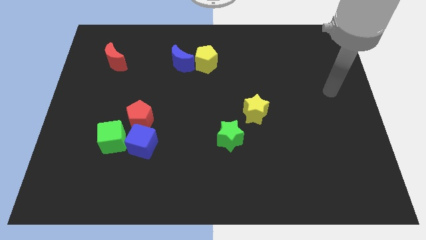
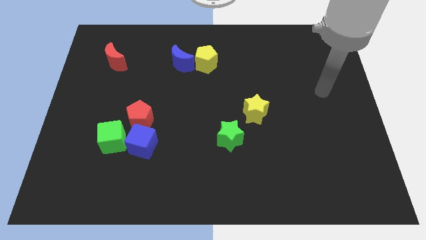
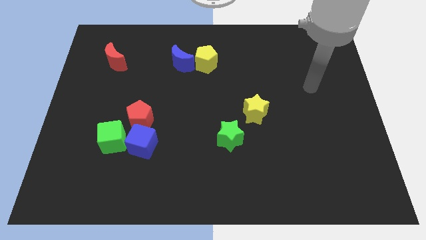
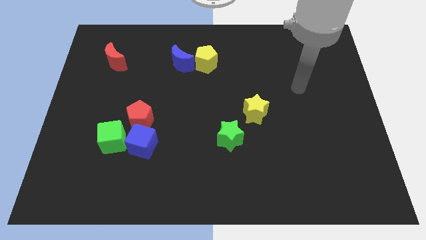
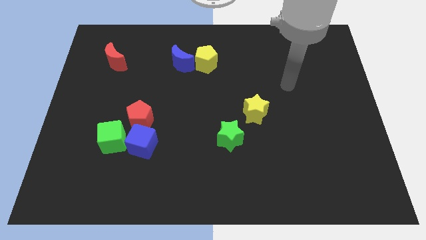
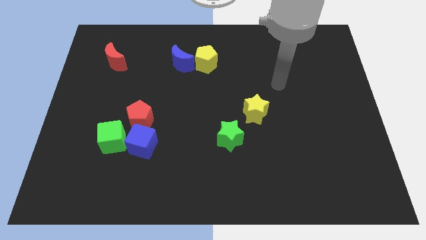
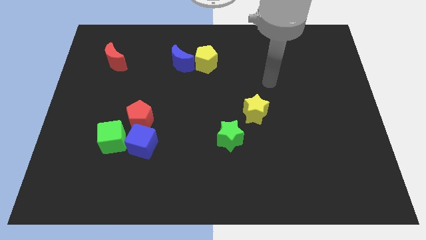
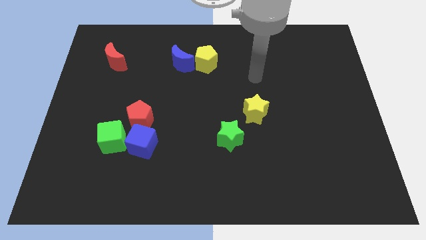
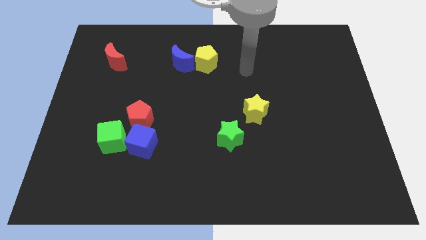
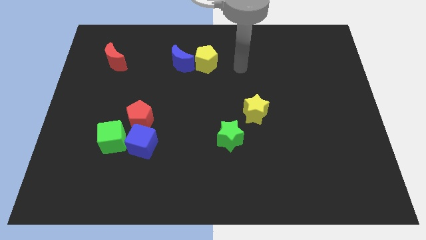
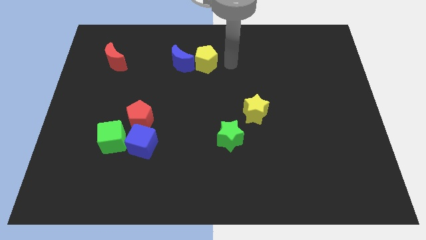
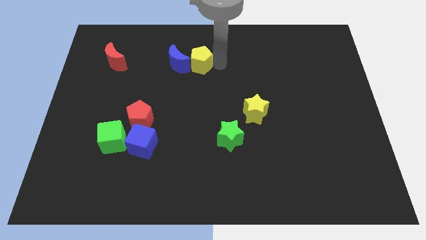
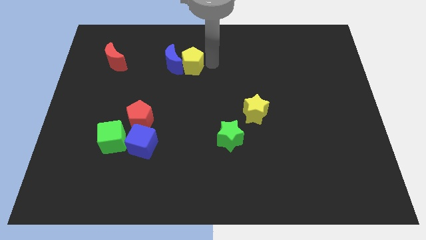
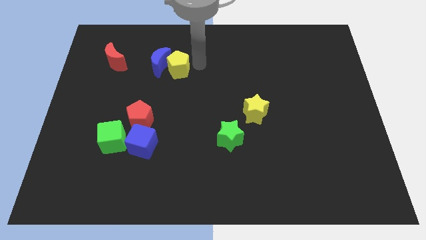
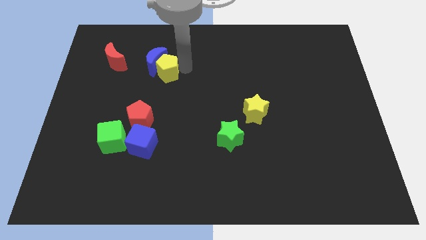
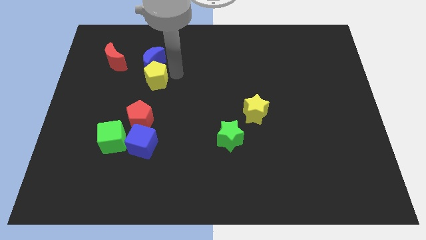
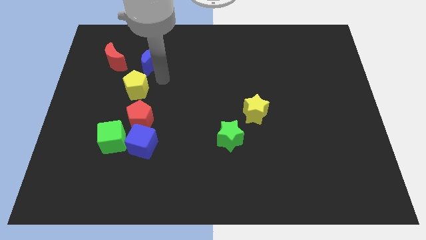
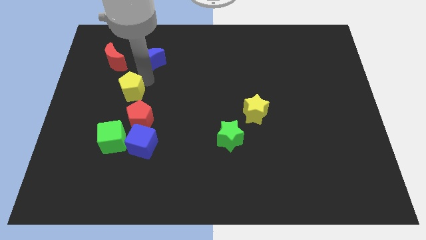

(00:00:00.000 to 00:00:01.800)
separate the blue moon from the yellow pentagon

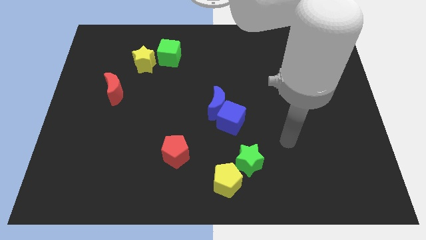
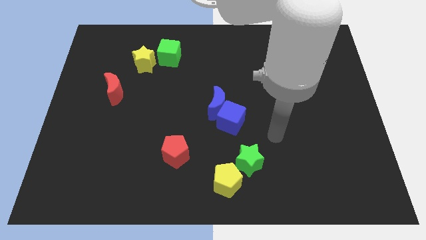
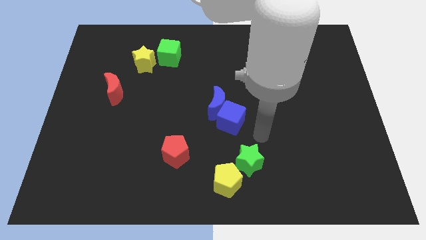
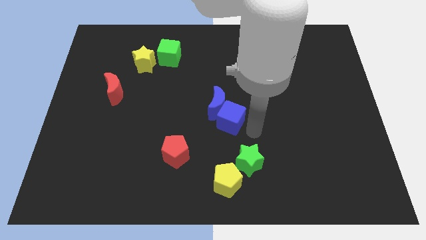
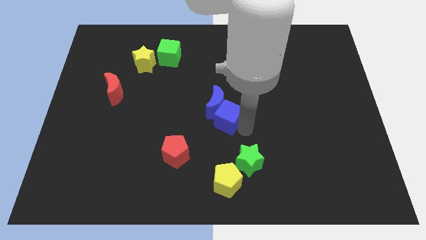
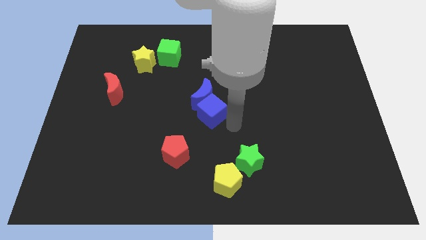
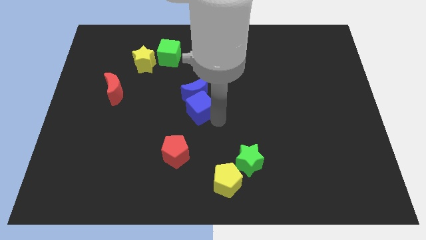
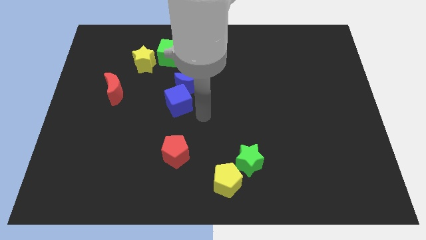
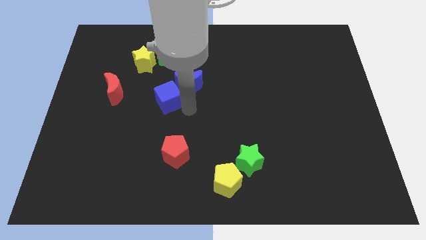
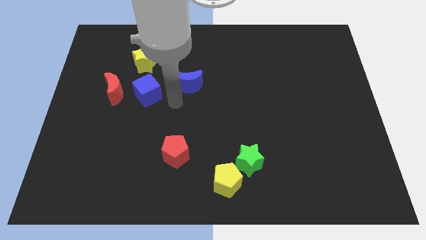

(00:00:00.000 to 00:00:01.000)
pull the blue moon apart from the blue cube

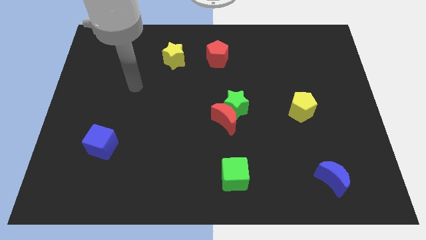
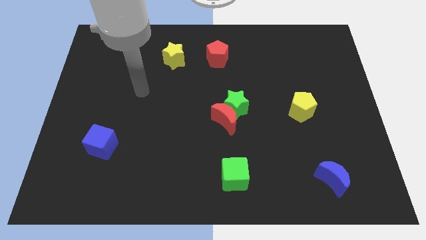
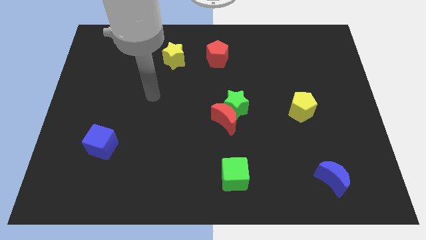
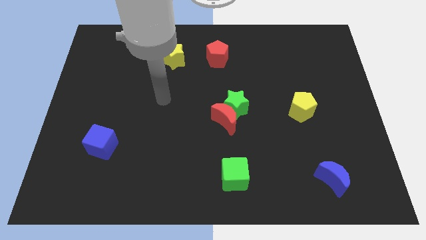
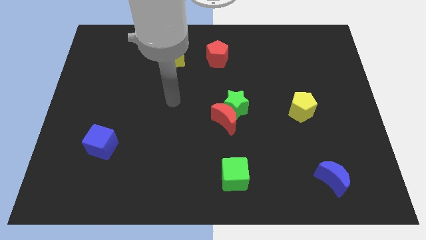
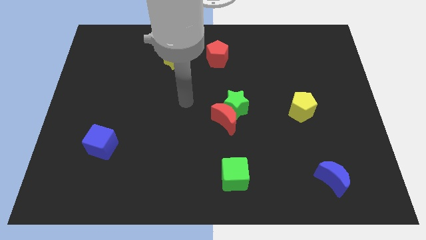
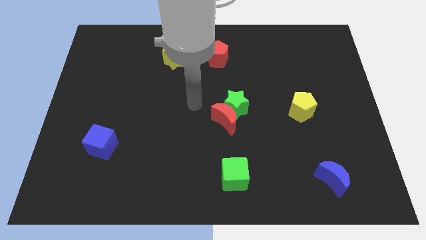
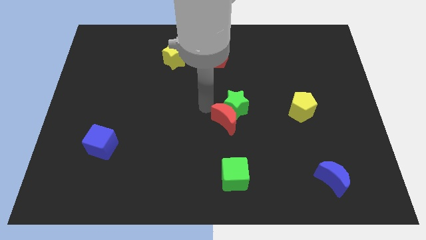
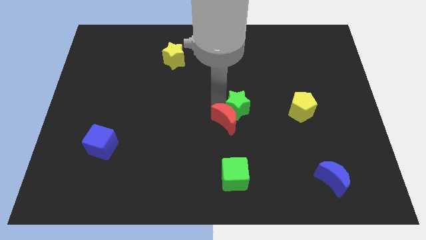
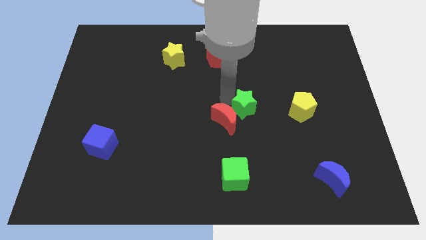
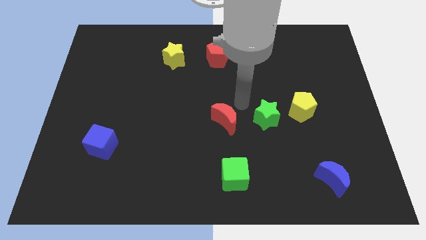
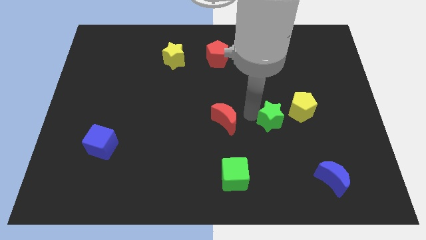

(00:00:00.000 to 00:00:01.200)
pull the red moon apart from the green star

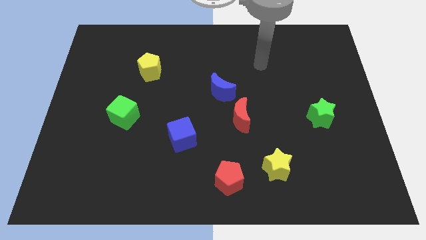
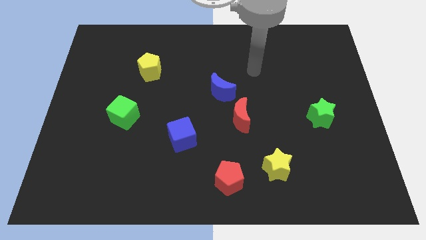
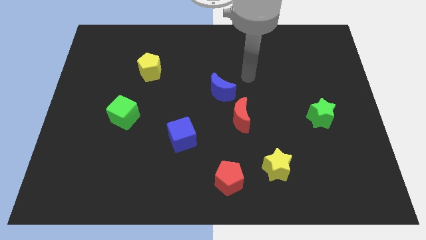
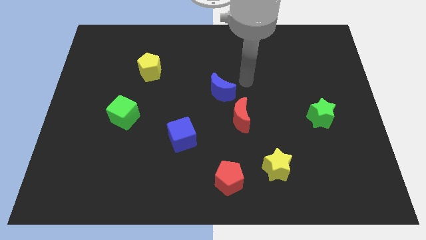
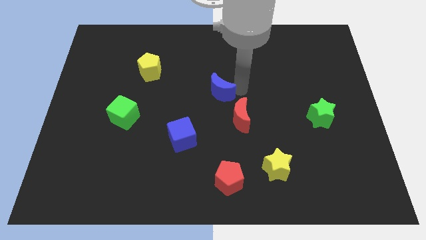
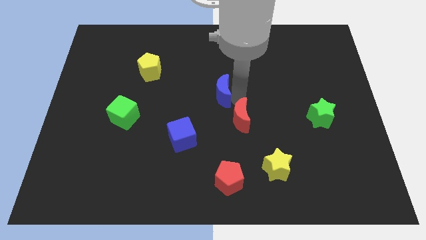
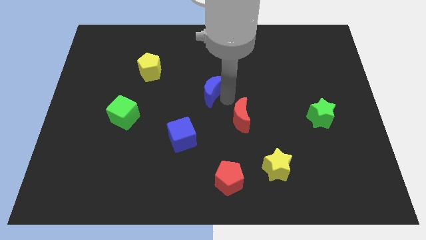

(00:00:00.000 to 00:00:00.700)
move the red moon away from the blue moon

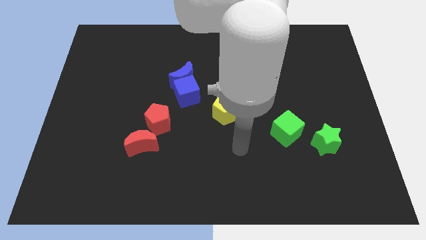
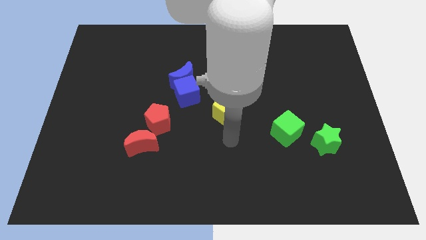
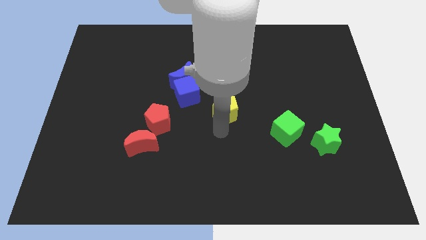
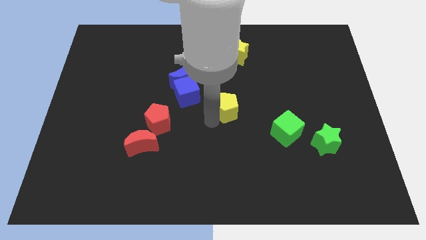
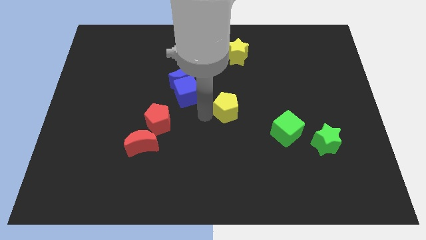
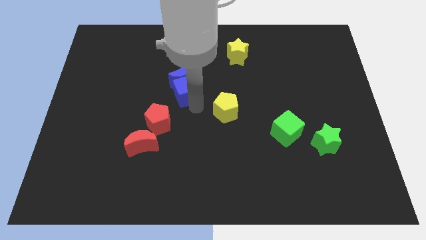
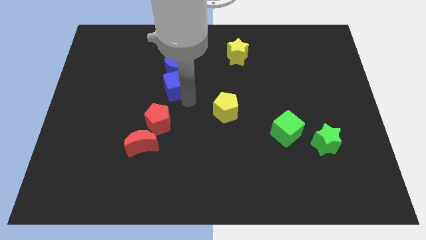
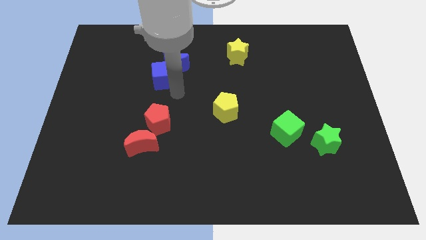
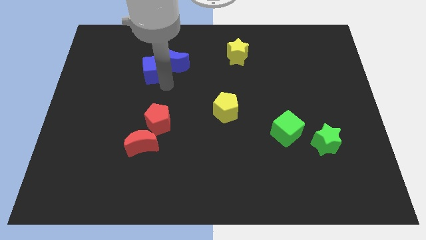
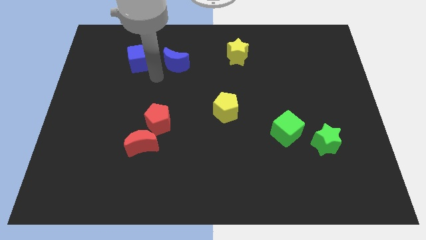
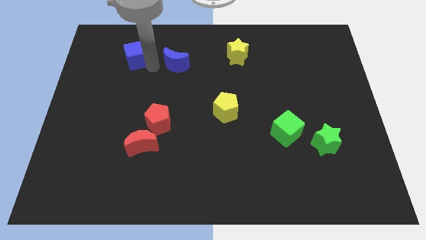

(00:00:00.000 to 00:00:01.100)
separate the blue moon from the blue cube

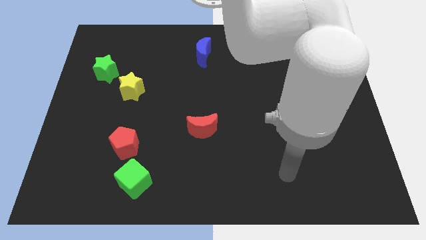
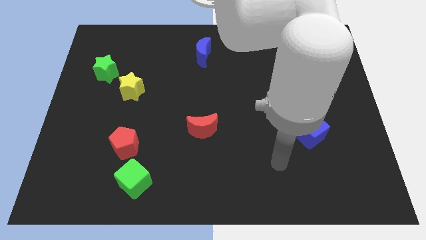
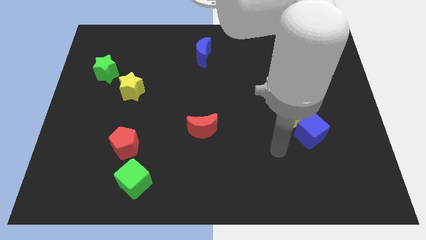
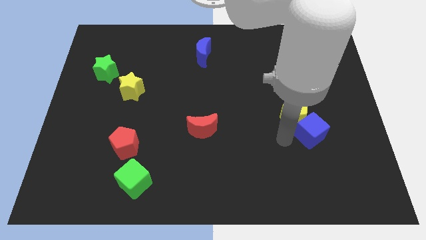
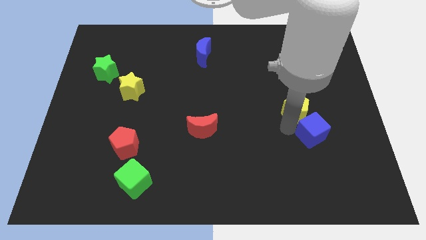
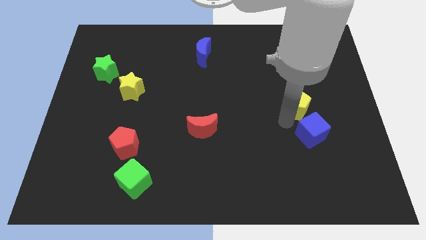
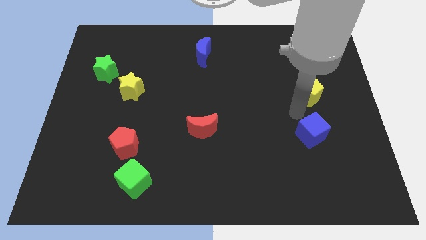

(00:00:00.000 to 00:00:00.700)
separate the blue cube from the yellow pentagon

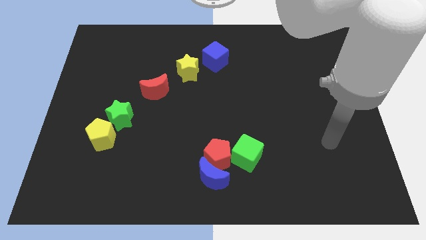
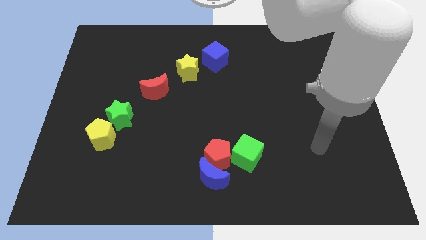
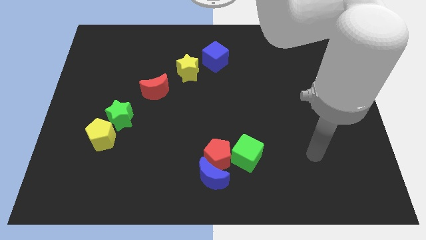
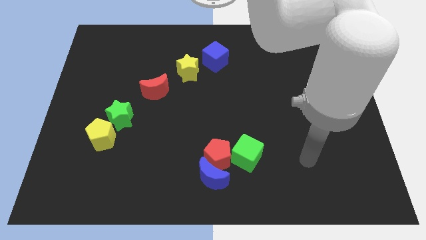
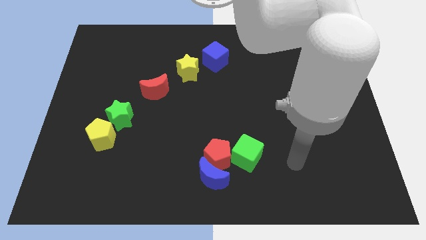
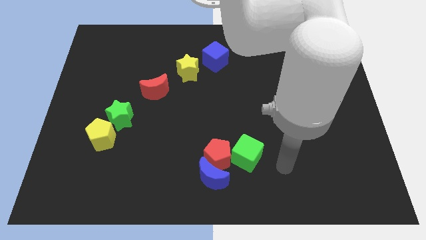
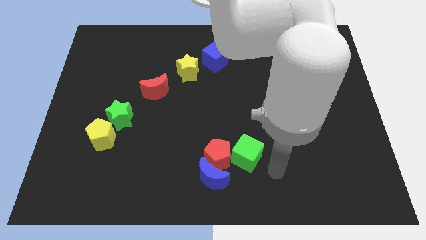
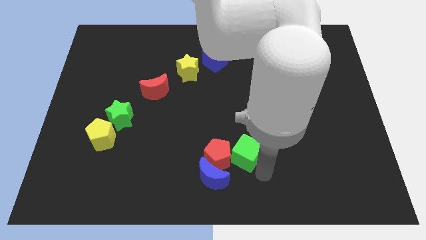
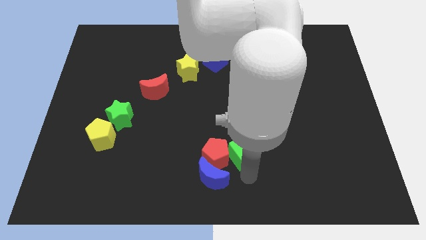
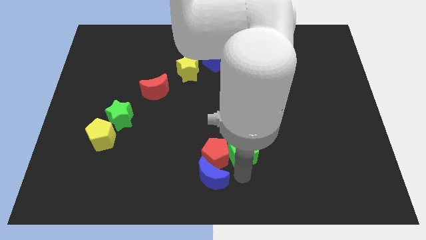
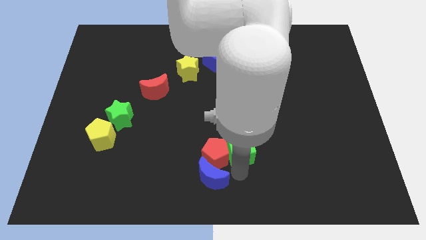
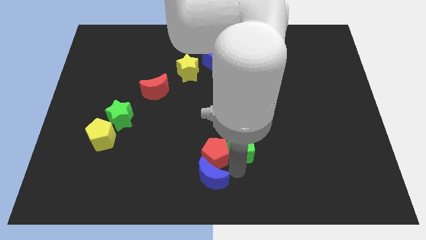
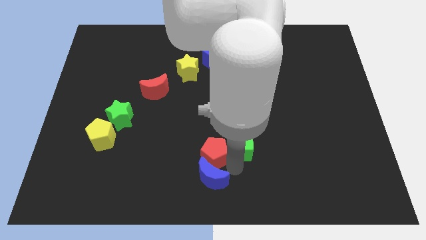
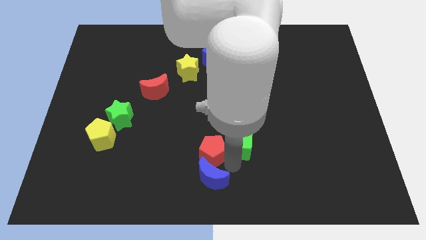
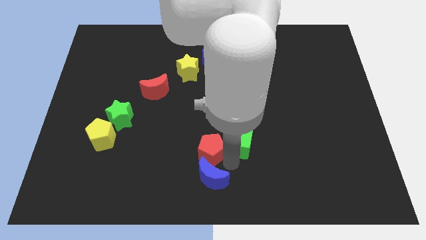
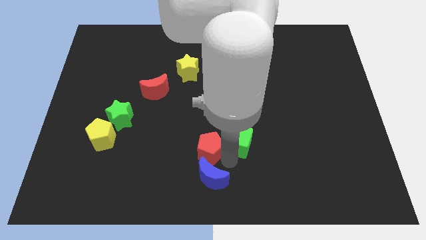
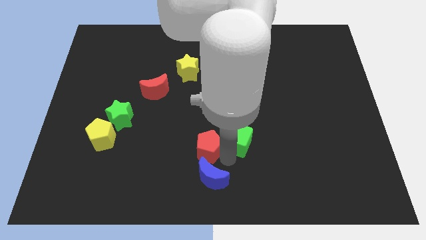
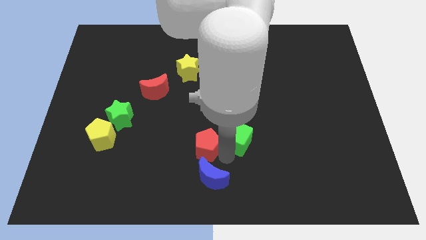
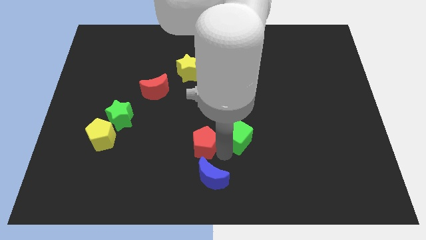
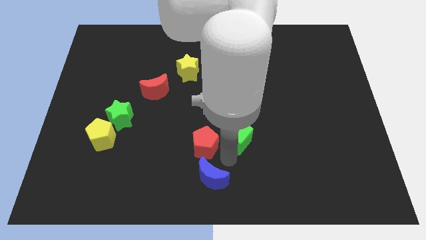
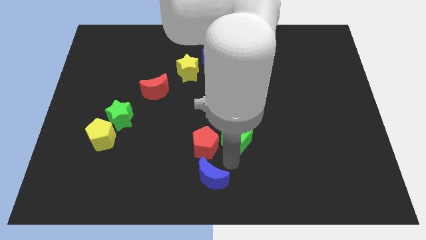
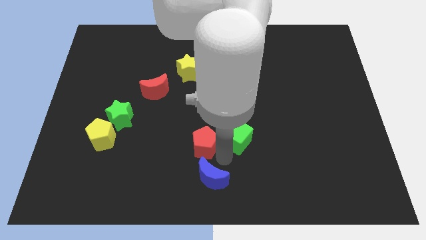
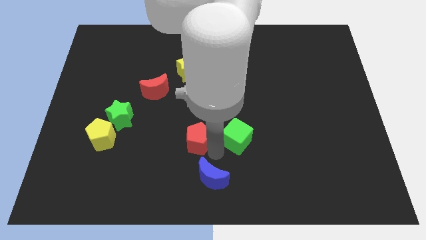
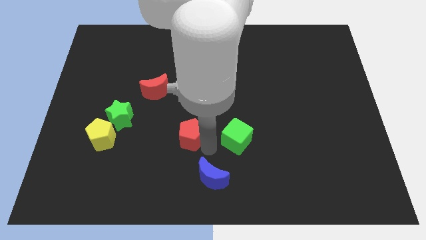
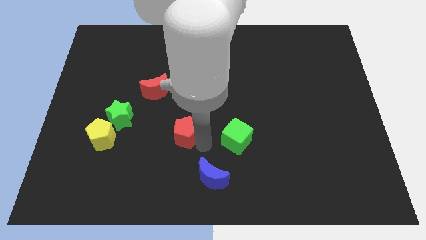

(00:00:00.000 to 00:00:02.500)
pull the red pentagon apart from the blue moon and green cube

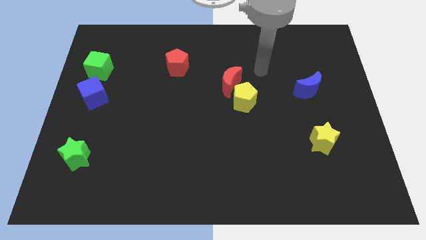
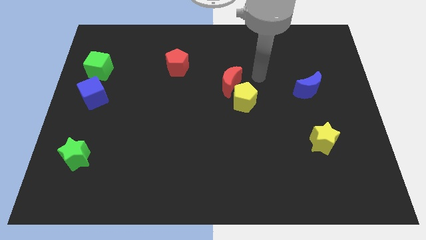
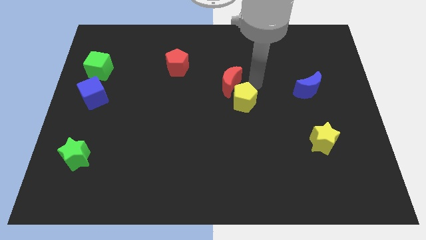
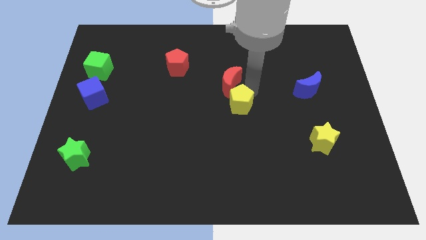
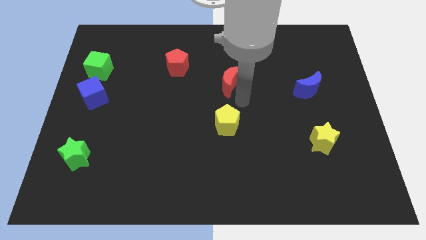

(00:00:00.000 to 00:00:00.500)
pull the red moon apart from the yellow pentagon
